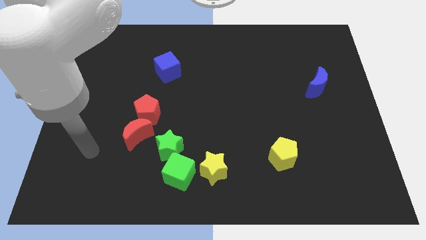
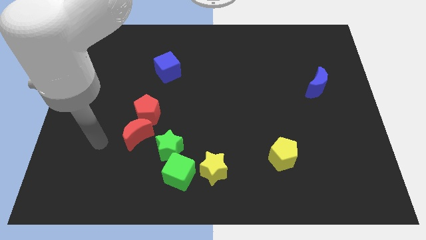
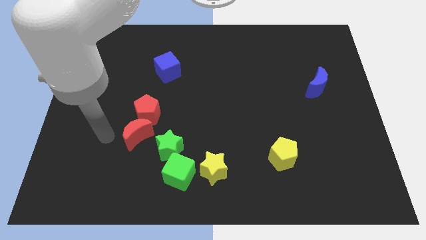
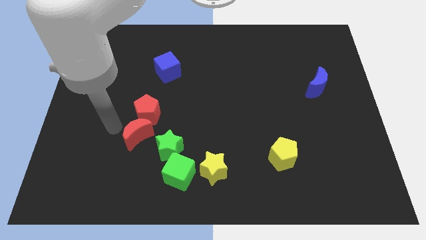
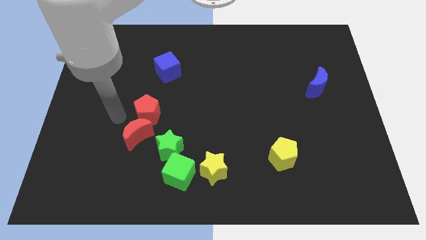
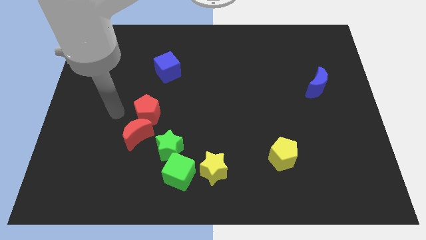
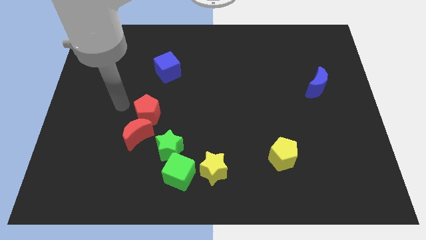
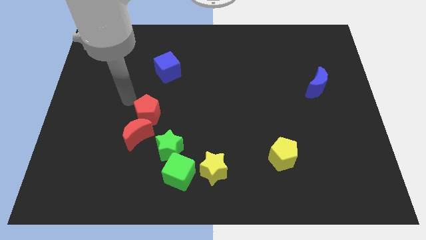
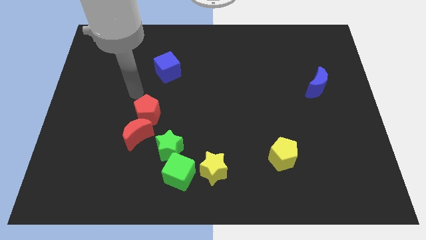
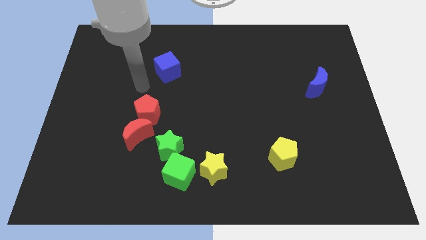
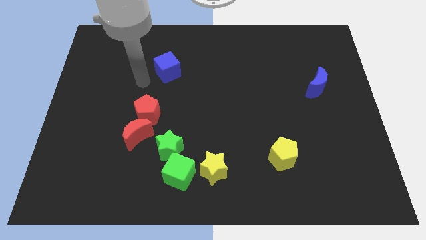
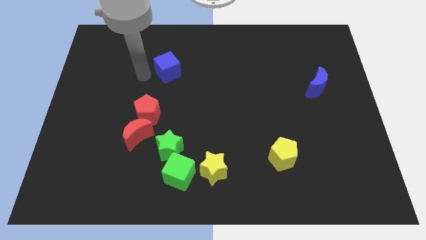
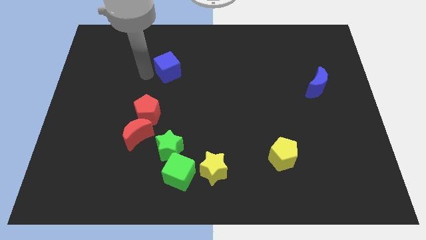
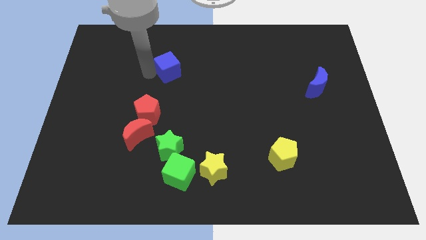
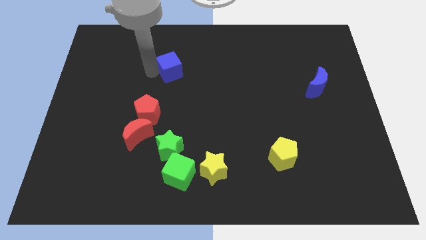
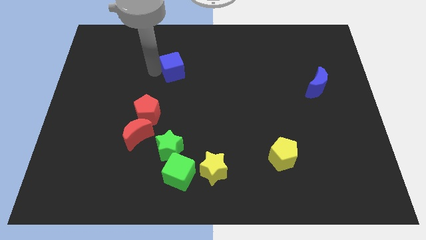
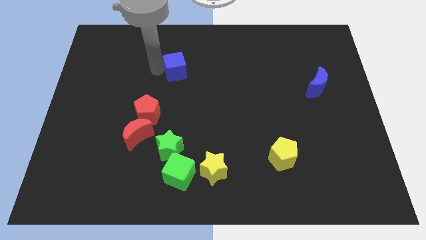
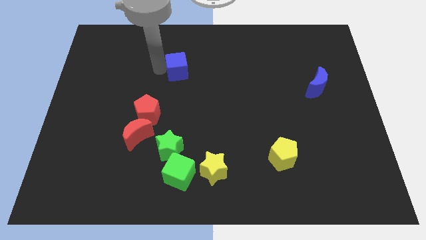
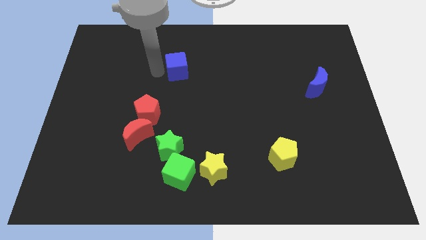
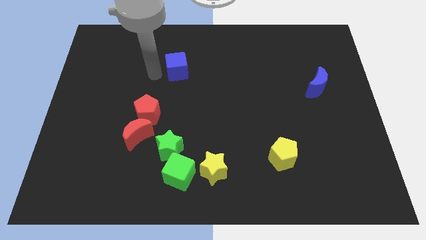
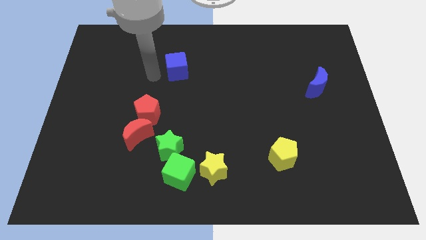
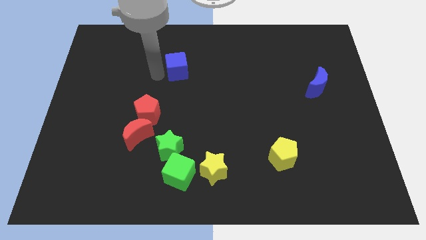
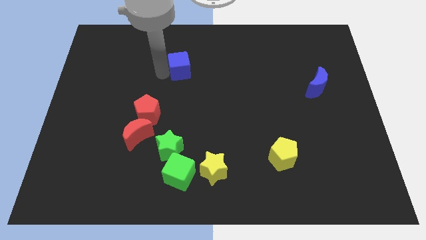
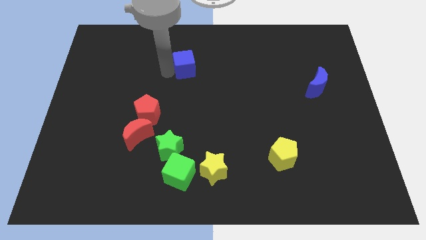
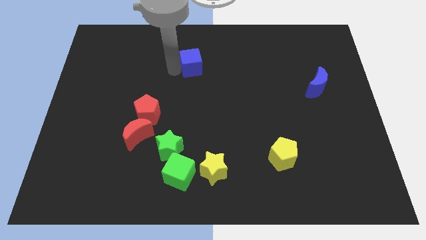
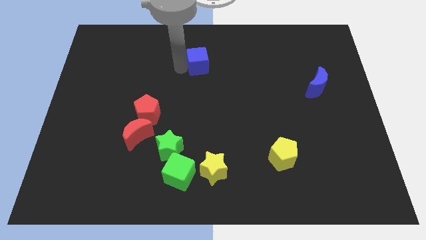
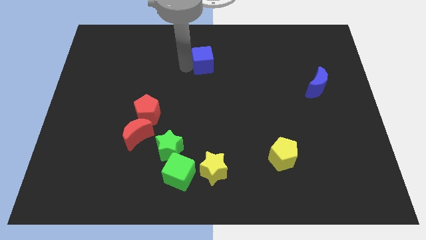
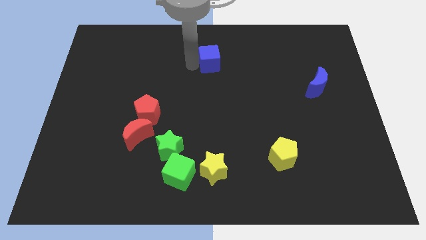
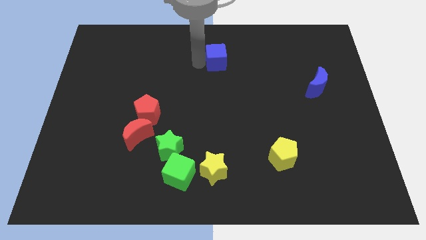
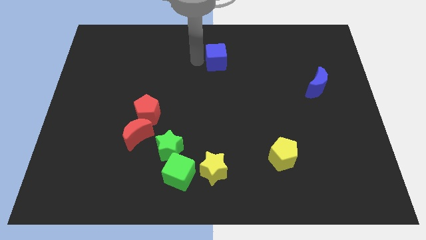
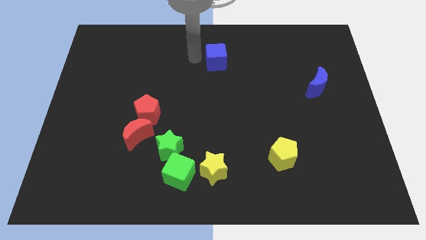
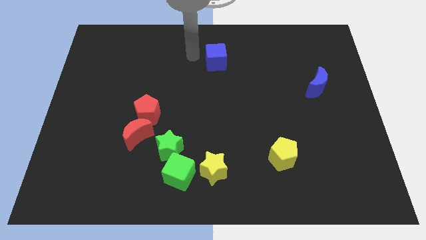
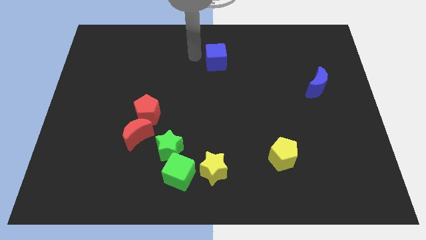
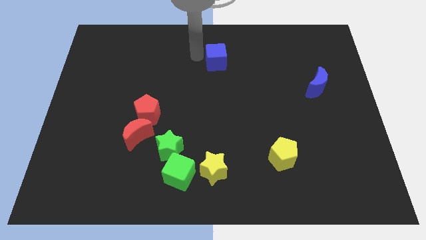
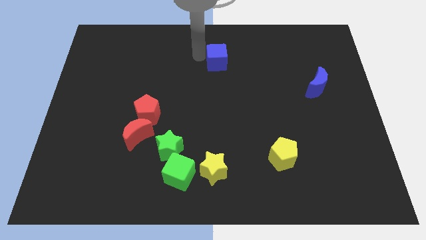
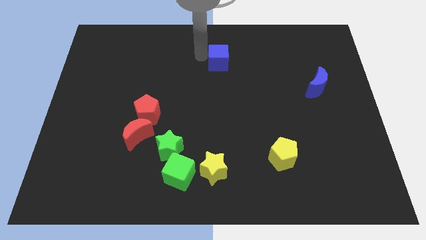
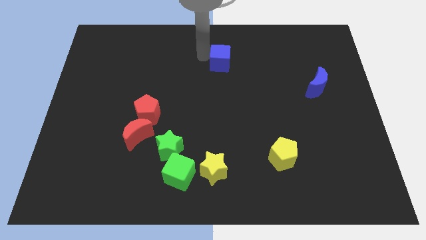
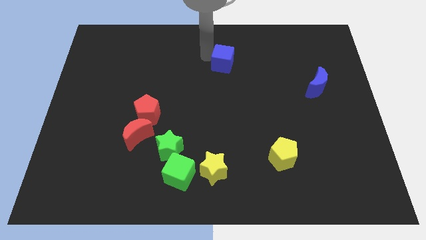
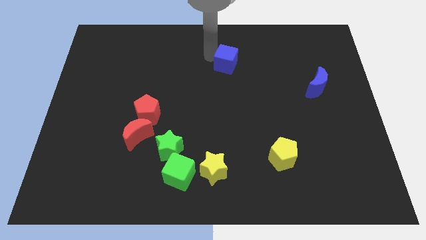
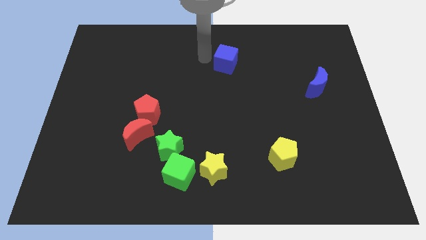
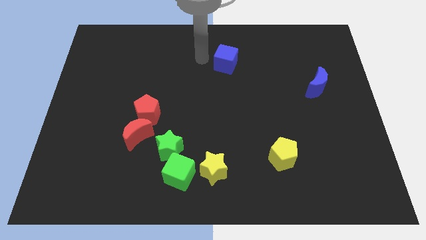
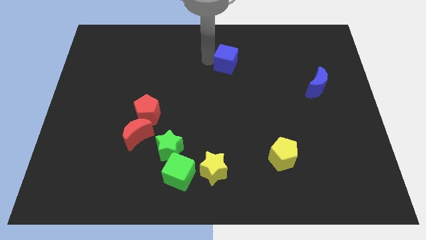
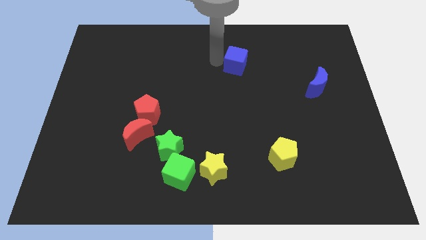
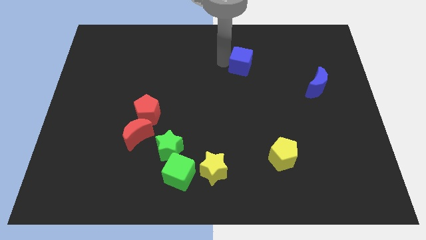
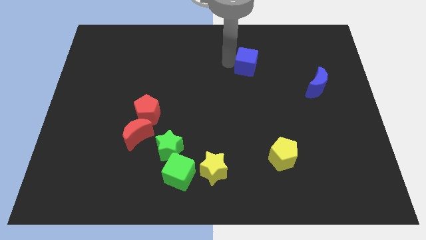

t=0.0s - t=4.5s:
slide the blue cube right

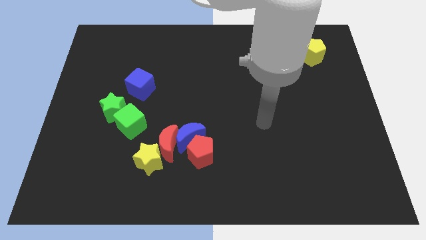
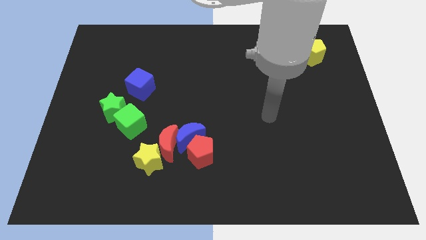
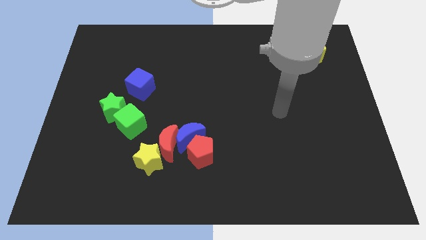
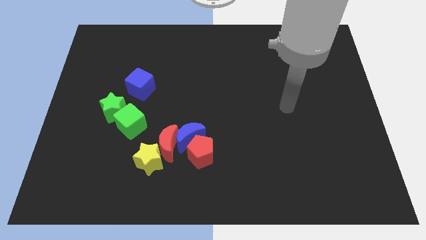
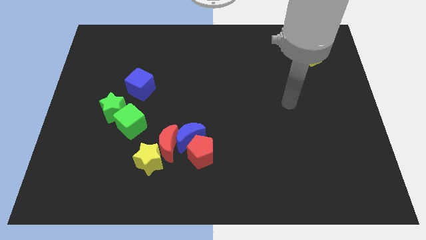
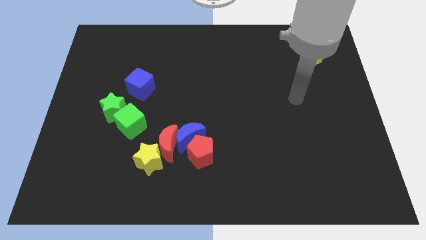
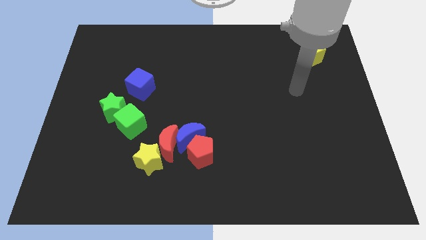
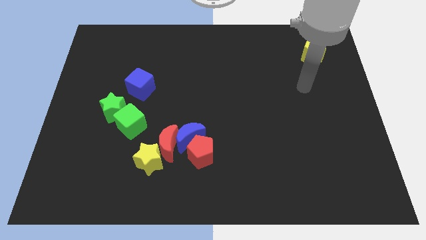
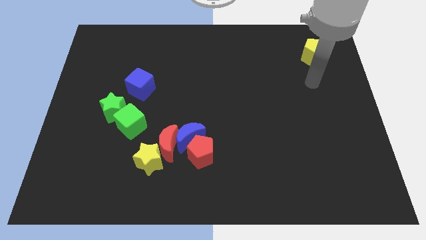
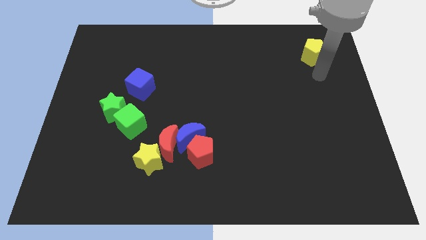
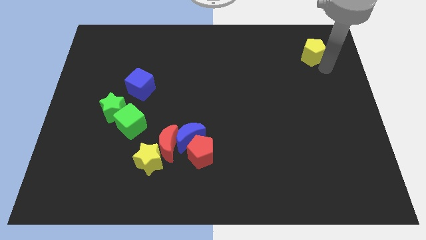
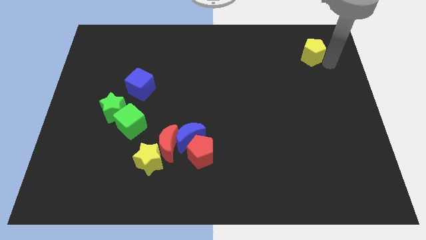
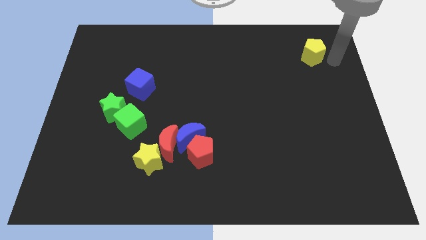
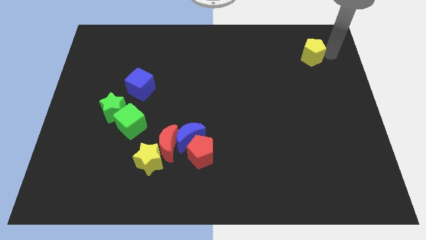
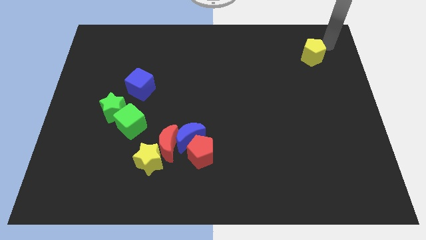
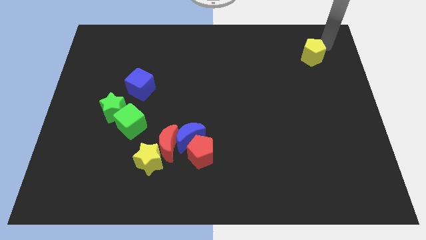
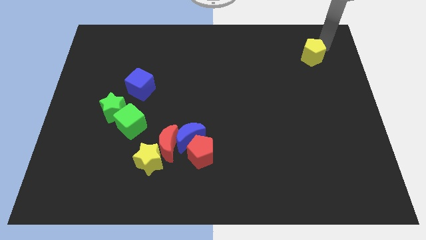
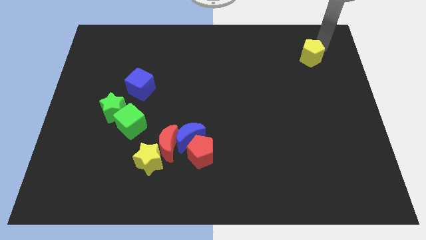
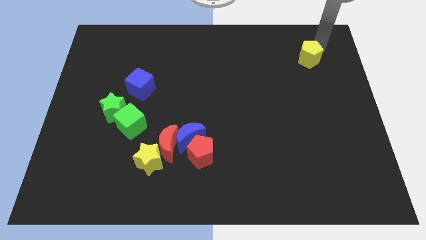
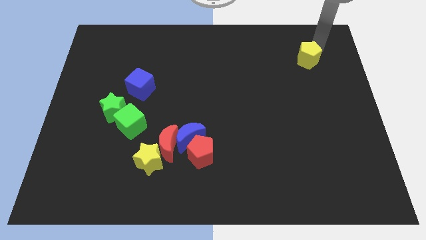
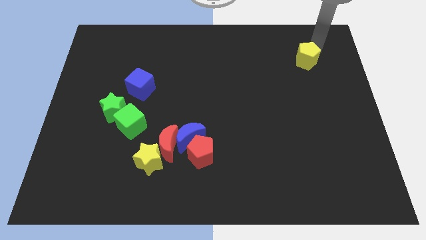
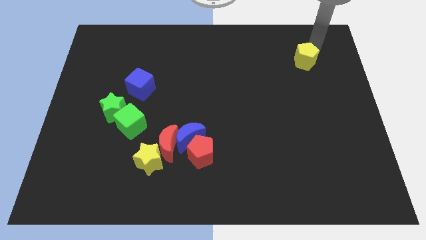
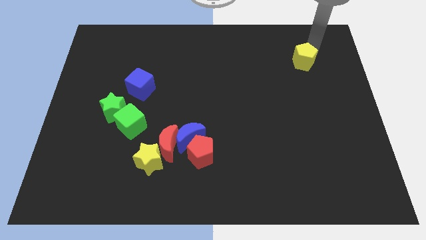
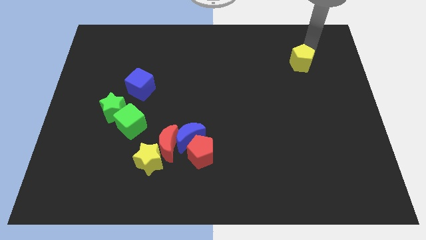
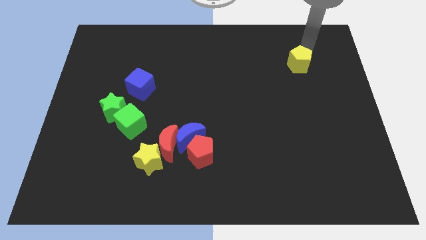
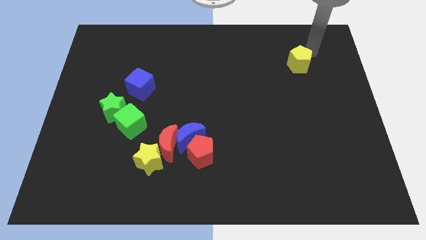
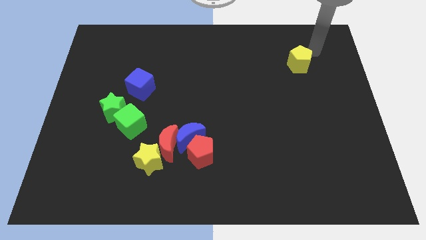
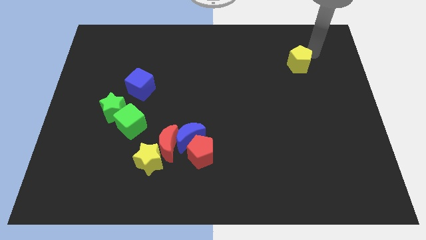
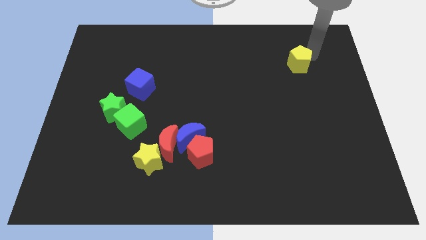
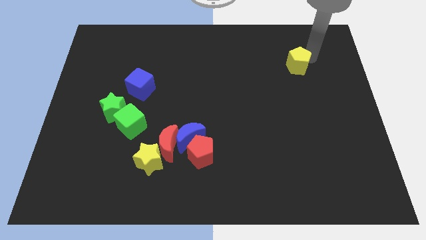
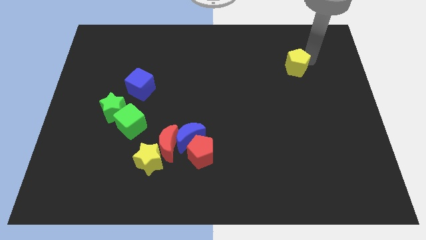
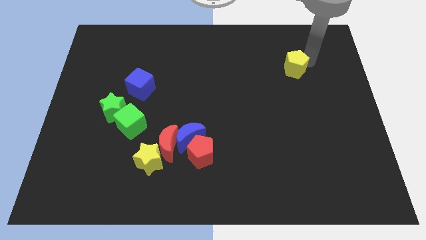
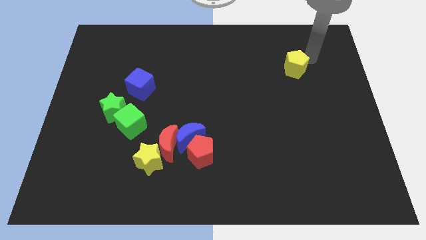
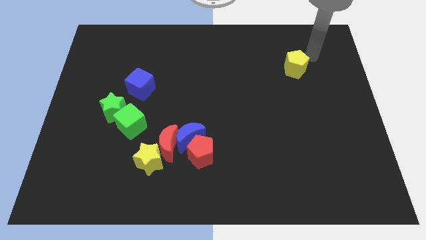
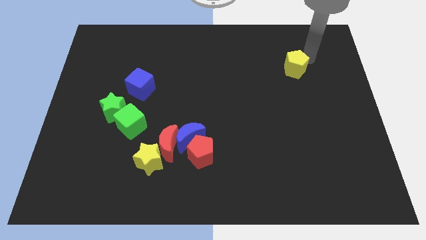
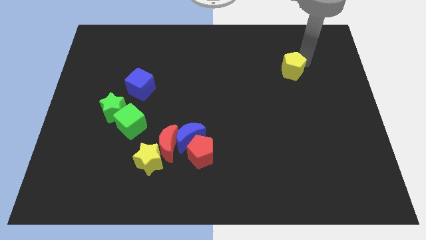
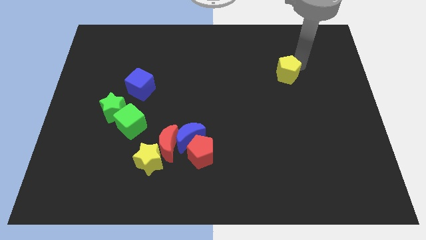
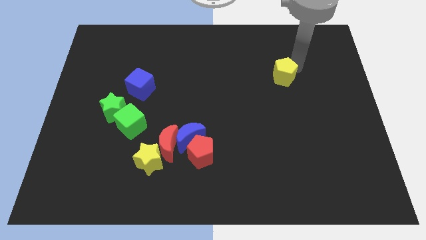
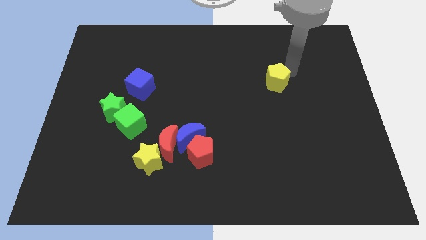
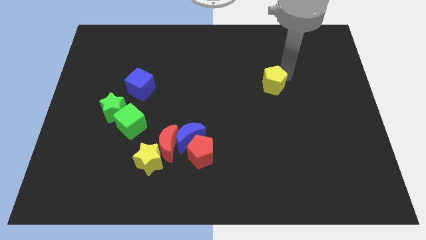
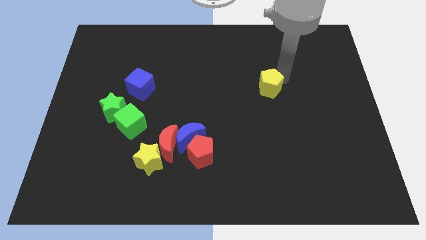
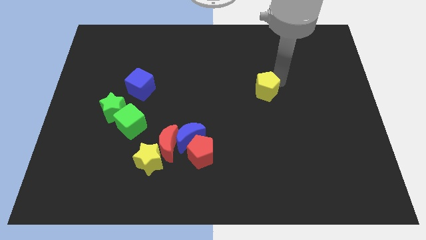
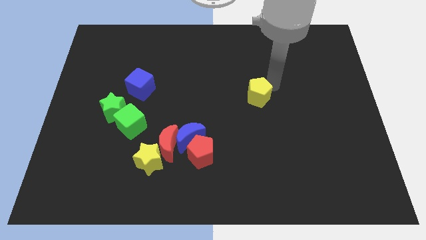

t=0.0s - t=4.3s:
push the yellow pentagon down and left diagonally
